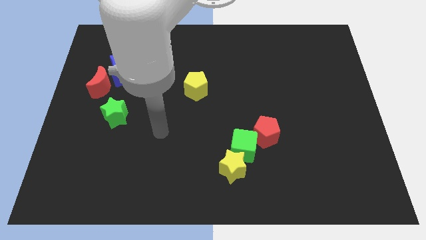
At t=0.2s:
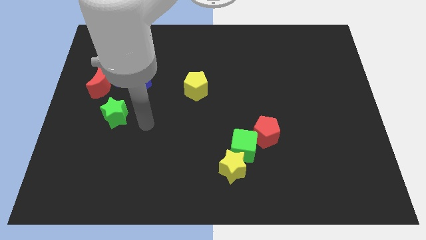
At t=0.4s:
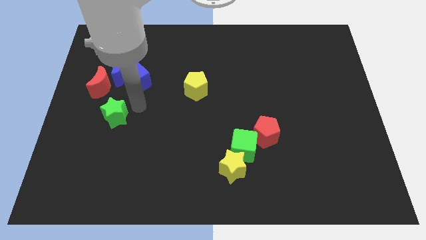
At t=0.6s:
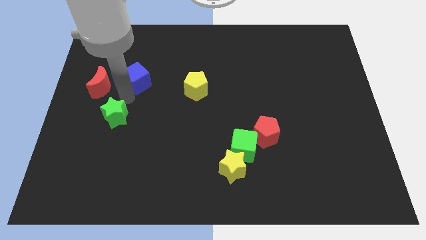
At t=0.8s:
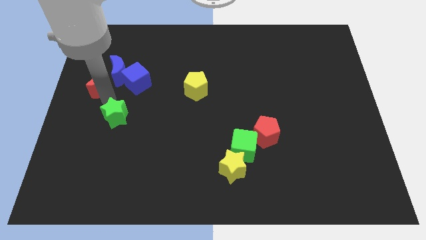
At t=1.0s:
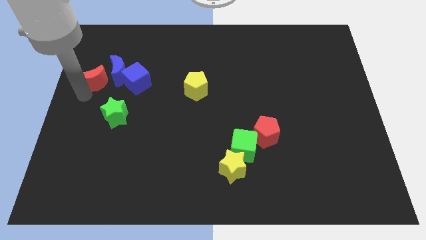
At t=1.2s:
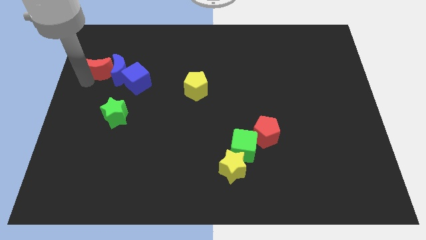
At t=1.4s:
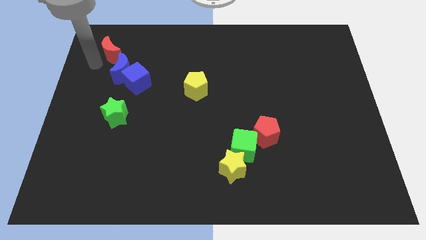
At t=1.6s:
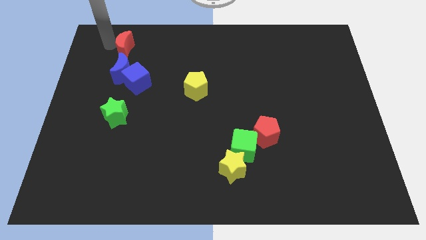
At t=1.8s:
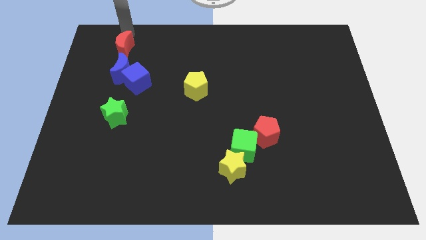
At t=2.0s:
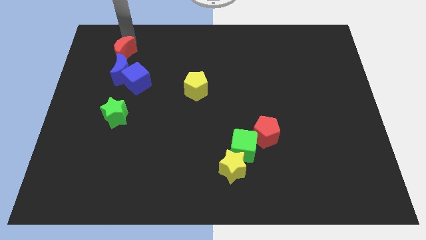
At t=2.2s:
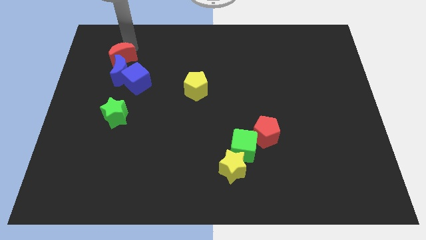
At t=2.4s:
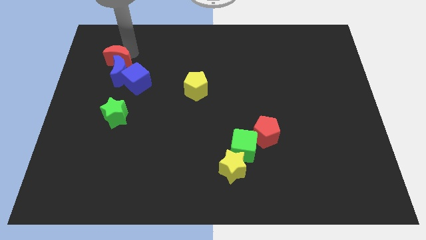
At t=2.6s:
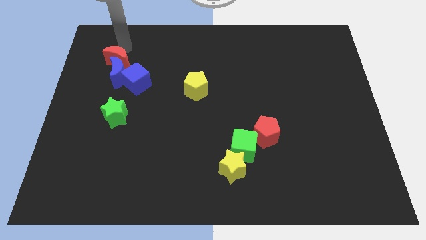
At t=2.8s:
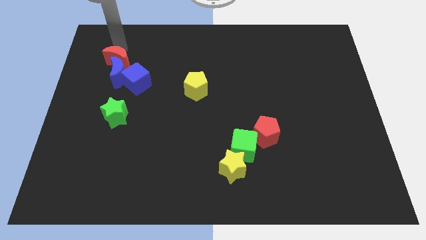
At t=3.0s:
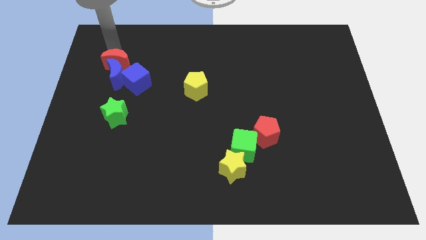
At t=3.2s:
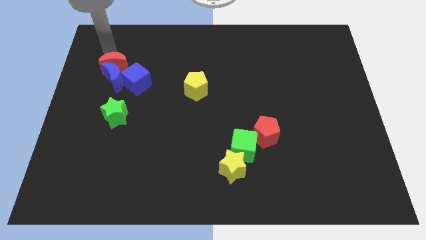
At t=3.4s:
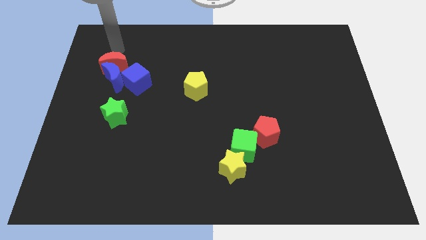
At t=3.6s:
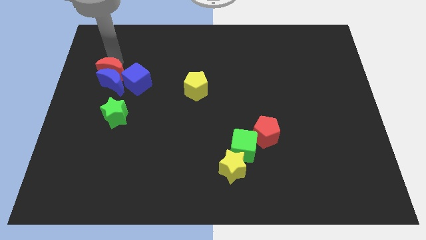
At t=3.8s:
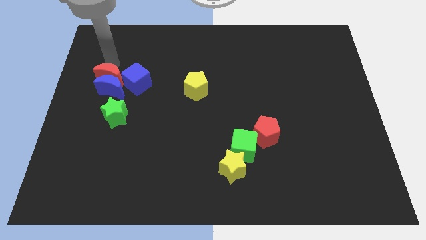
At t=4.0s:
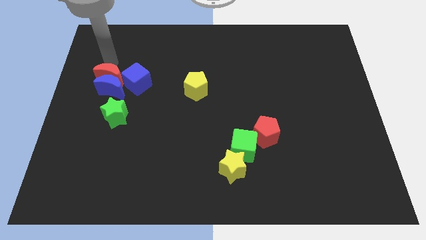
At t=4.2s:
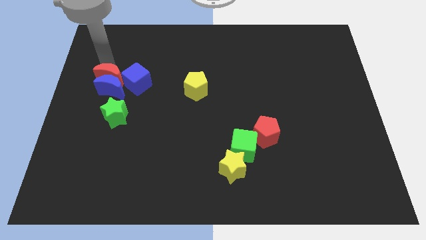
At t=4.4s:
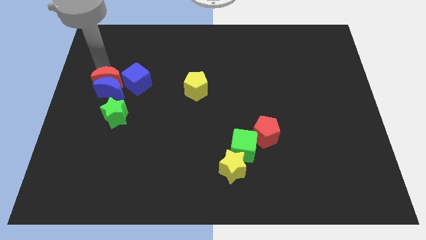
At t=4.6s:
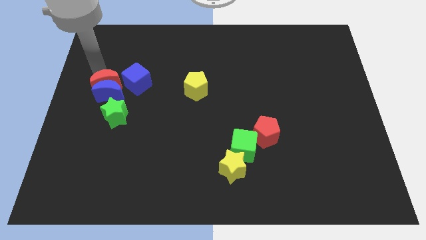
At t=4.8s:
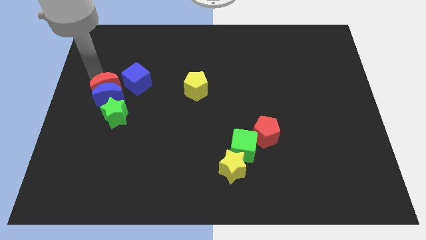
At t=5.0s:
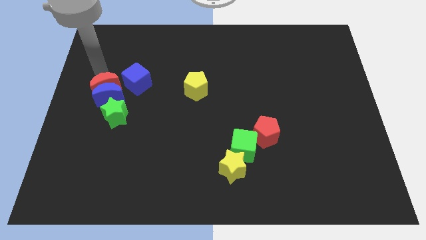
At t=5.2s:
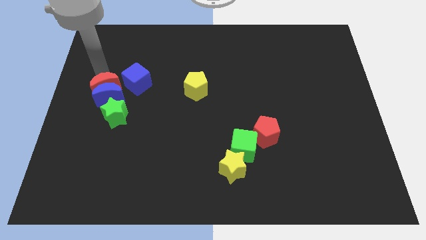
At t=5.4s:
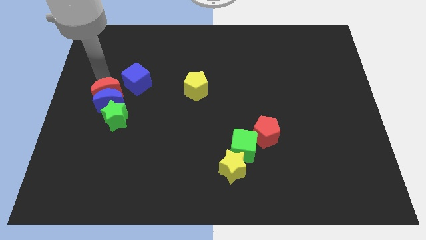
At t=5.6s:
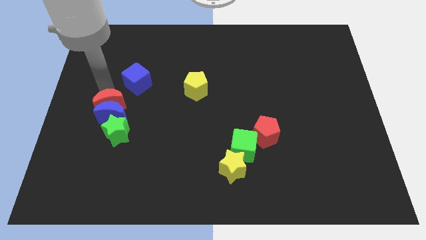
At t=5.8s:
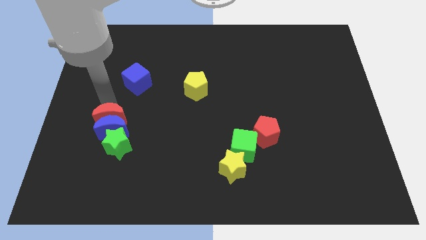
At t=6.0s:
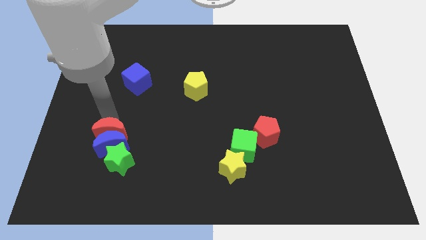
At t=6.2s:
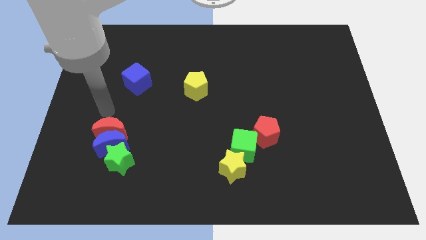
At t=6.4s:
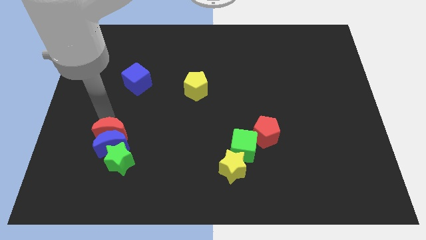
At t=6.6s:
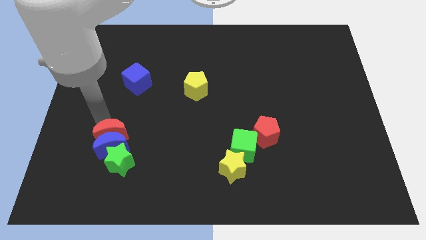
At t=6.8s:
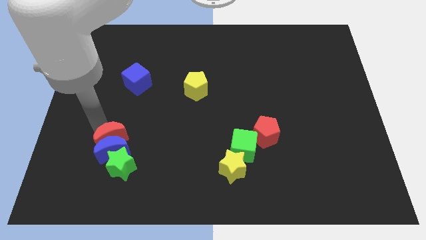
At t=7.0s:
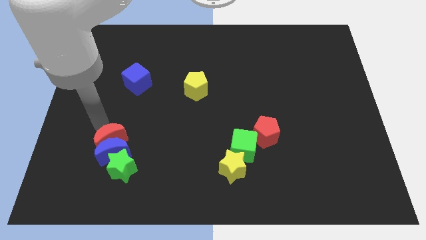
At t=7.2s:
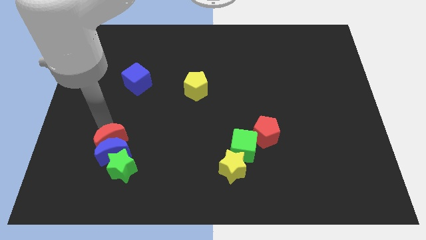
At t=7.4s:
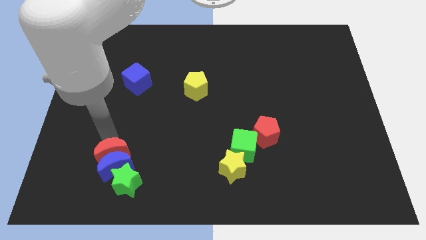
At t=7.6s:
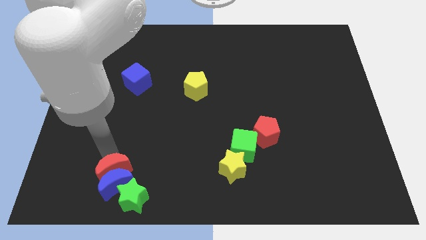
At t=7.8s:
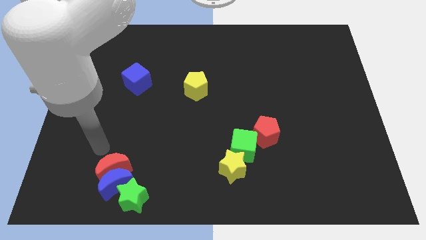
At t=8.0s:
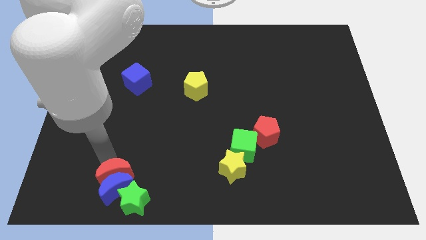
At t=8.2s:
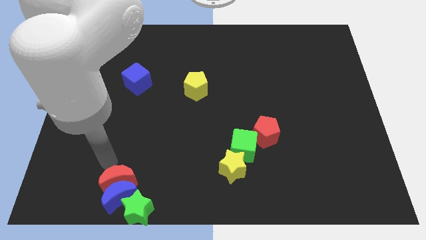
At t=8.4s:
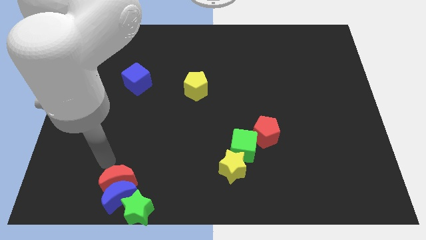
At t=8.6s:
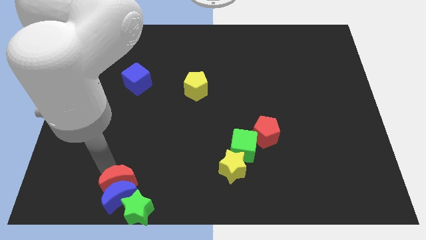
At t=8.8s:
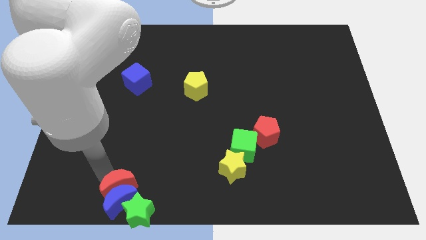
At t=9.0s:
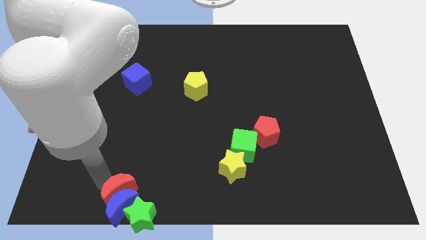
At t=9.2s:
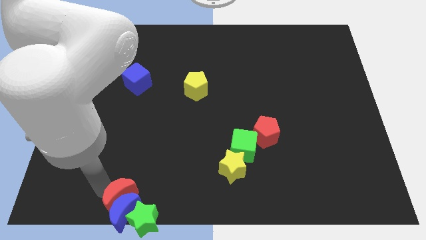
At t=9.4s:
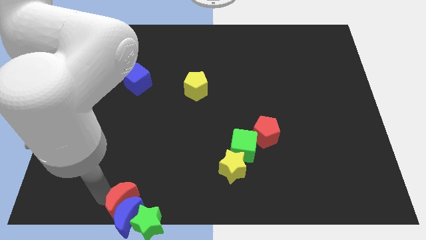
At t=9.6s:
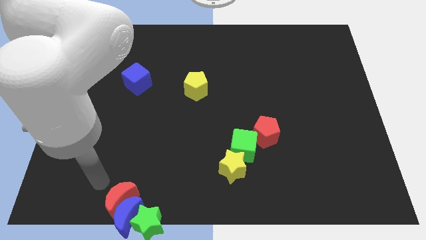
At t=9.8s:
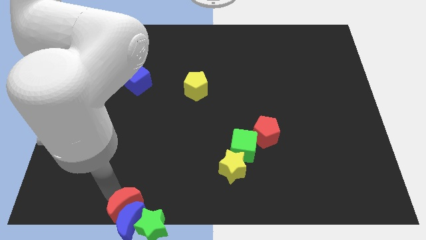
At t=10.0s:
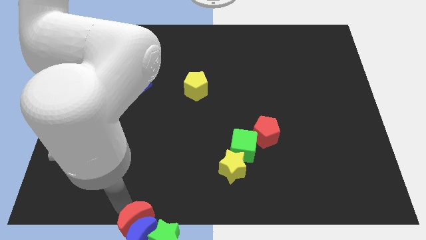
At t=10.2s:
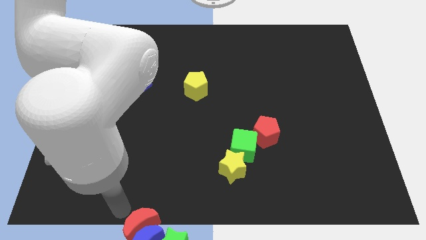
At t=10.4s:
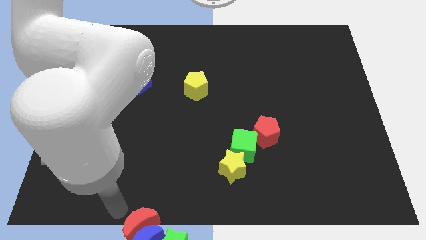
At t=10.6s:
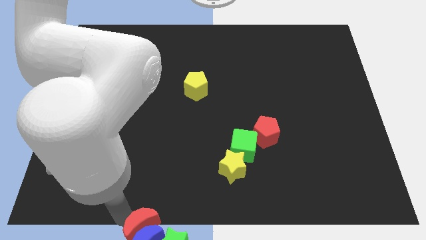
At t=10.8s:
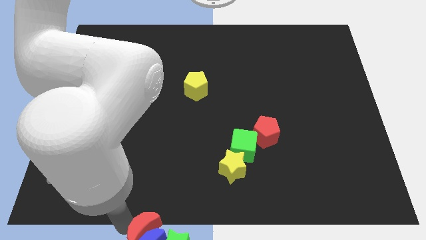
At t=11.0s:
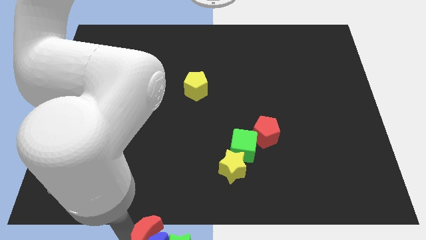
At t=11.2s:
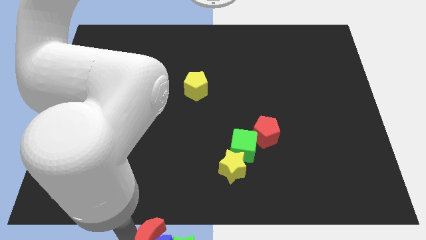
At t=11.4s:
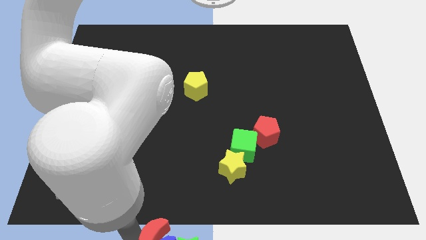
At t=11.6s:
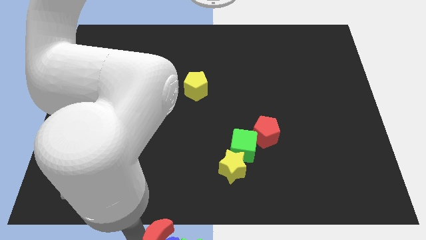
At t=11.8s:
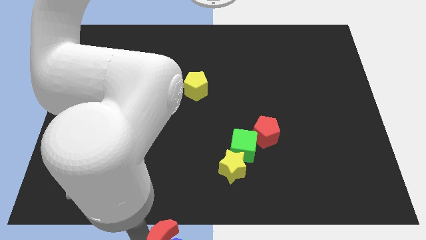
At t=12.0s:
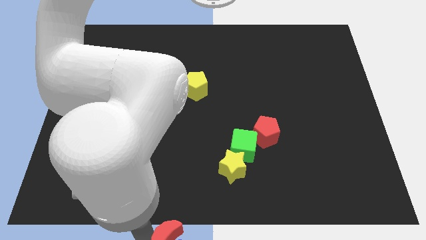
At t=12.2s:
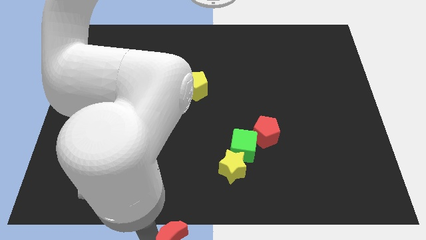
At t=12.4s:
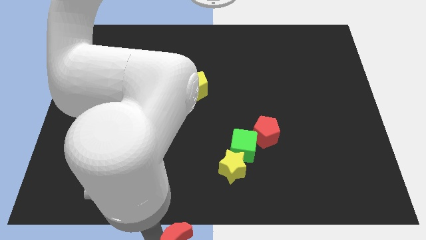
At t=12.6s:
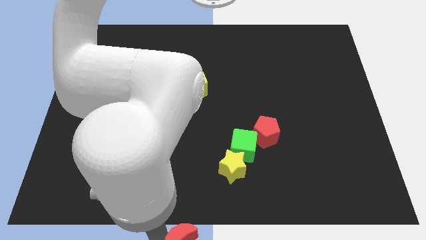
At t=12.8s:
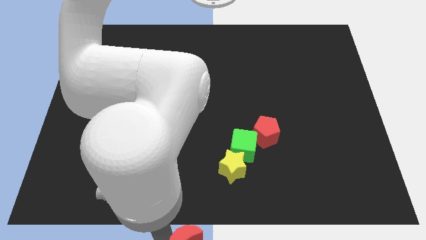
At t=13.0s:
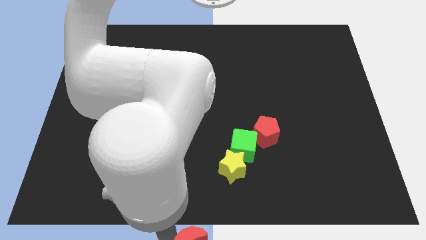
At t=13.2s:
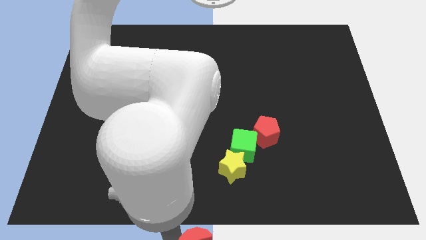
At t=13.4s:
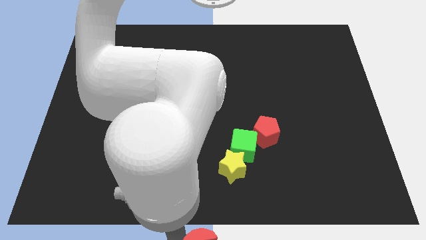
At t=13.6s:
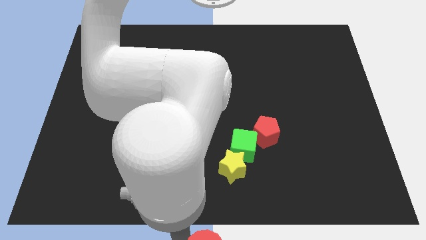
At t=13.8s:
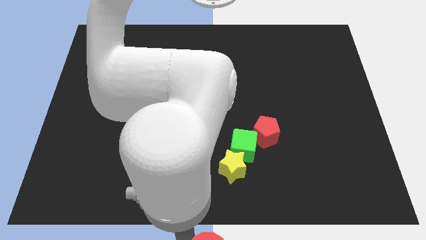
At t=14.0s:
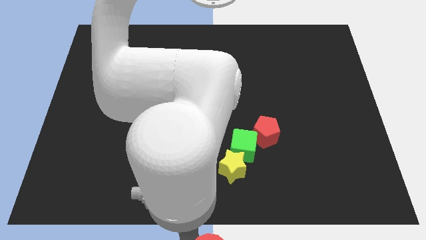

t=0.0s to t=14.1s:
move the red moon next to the green star
